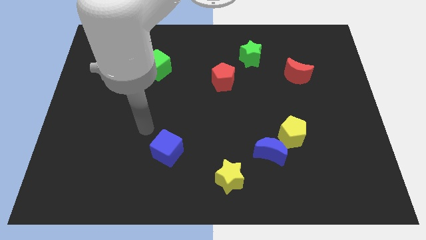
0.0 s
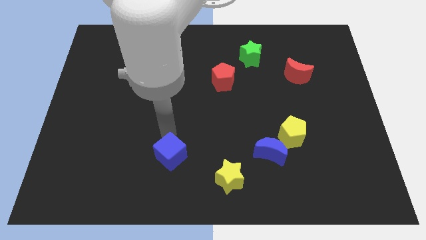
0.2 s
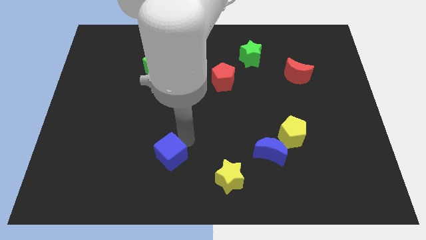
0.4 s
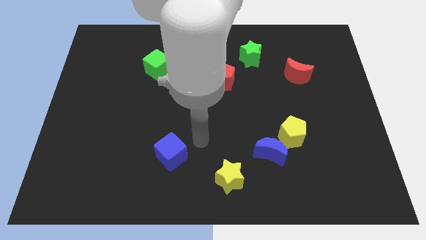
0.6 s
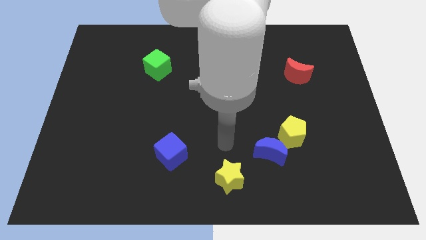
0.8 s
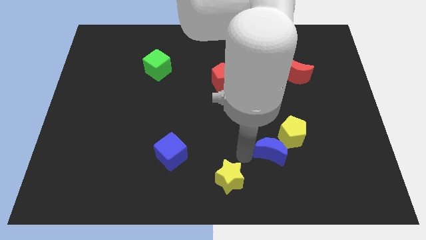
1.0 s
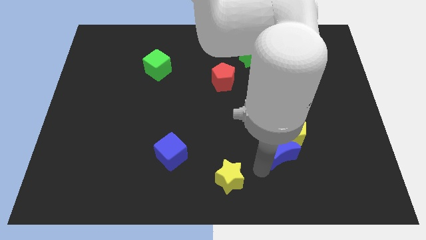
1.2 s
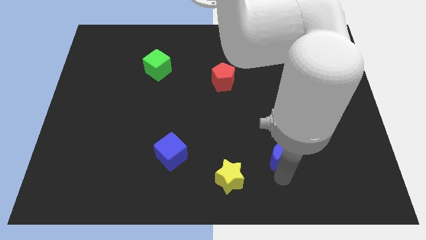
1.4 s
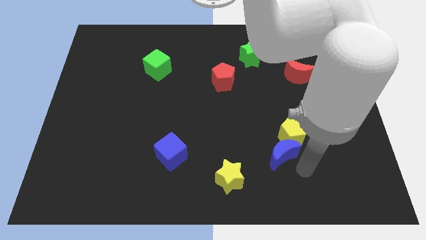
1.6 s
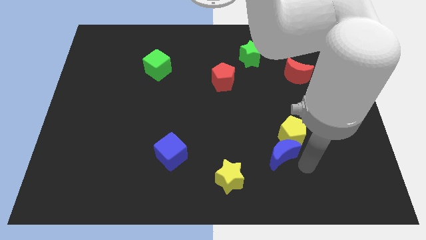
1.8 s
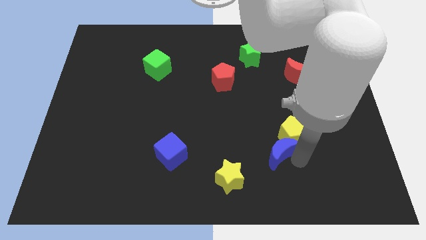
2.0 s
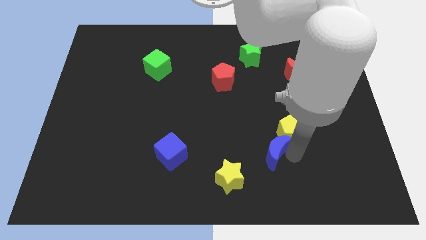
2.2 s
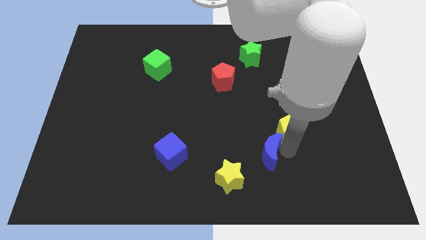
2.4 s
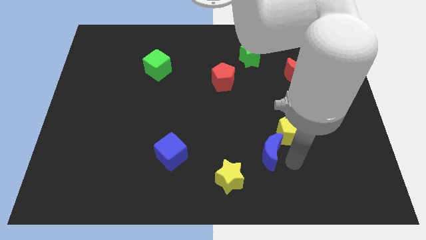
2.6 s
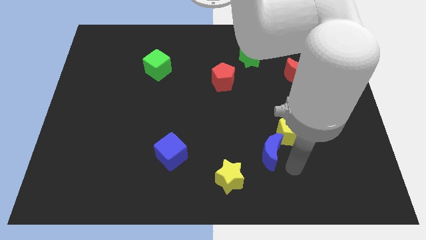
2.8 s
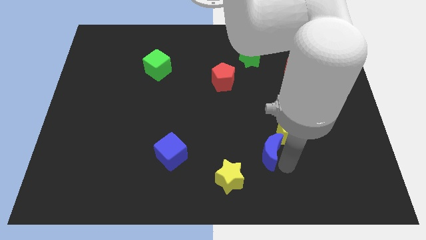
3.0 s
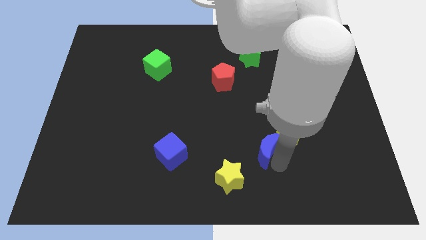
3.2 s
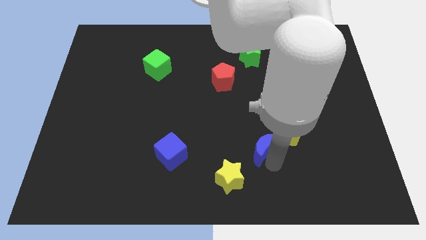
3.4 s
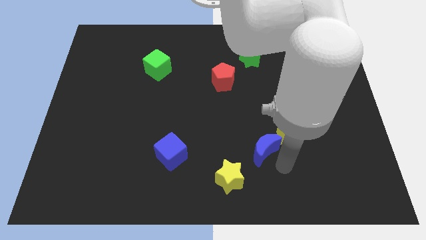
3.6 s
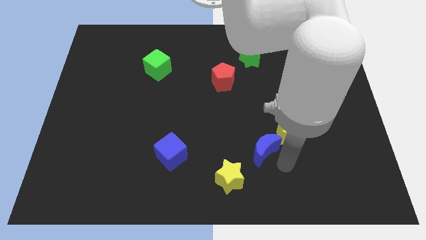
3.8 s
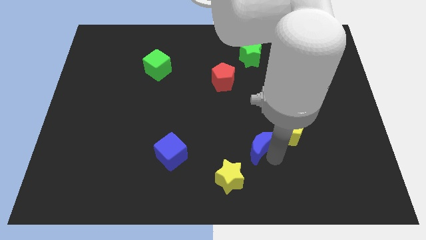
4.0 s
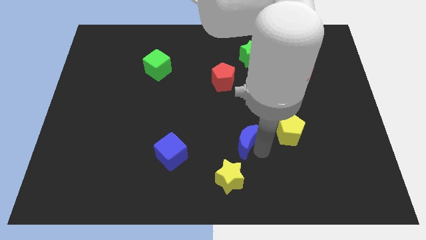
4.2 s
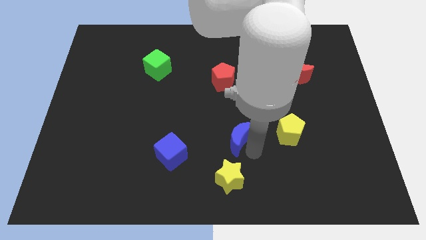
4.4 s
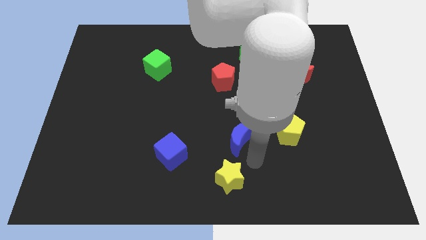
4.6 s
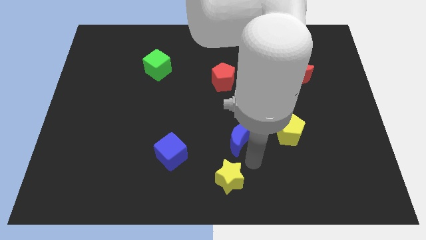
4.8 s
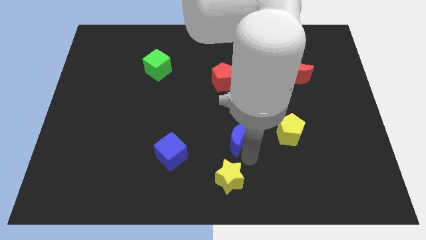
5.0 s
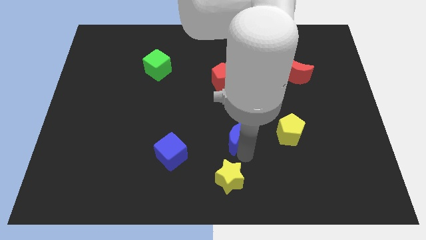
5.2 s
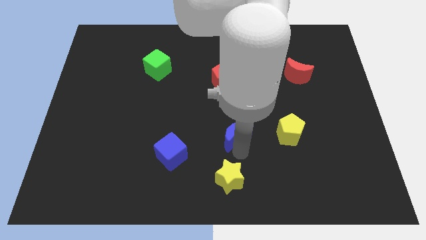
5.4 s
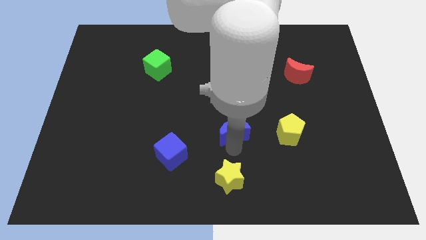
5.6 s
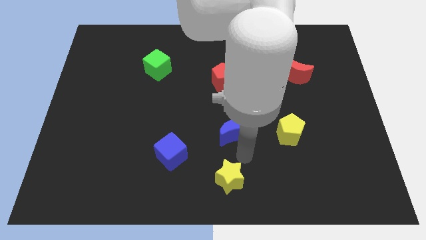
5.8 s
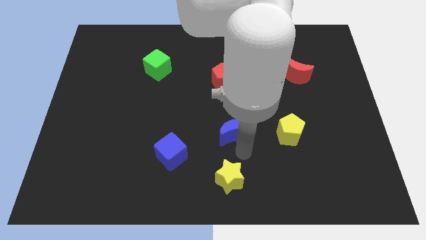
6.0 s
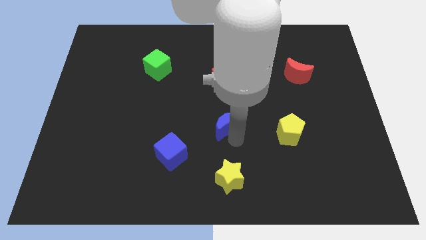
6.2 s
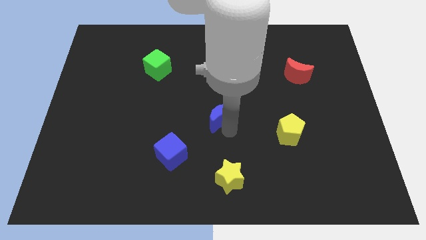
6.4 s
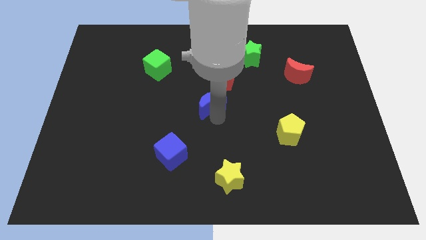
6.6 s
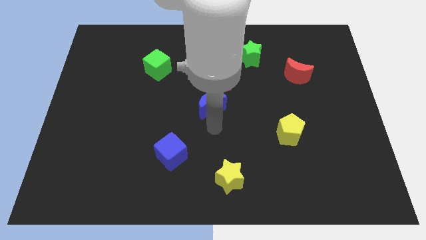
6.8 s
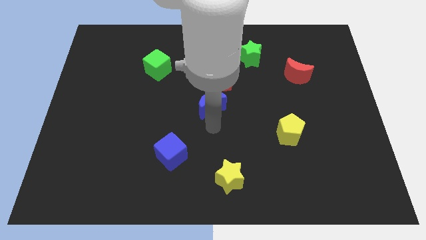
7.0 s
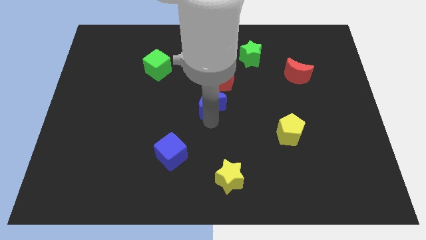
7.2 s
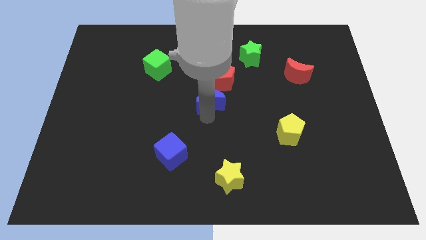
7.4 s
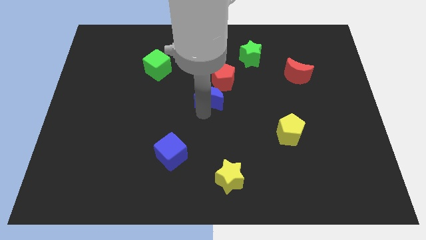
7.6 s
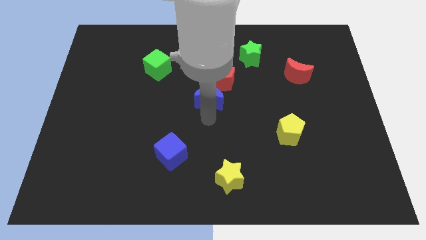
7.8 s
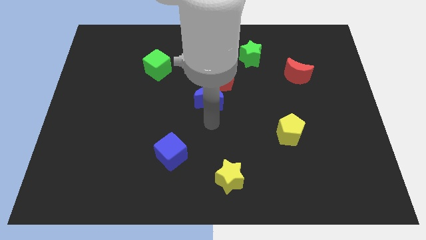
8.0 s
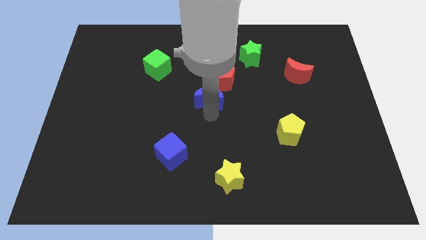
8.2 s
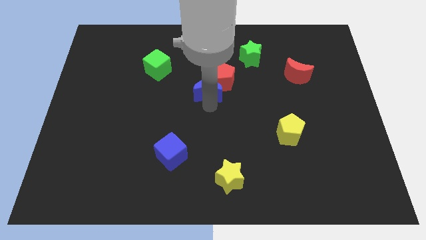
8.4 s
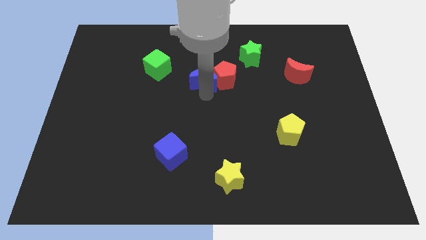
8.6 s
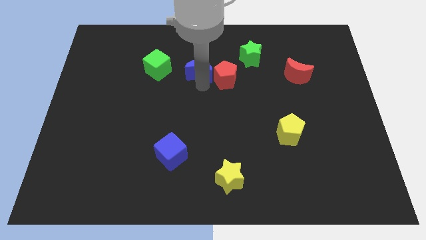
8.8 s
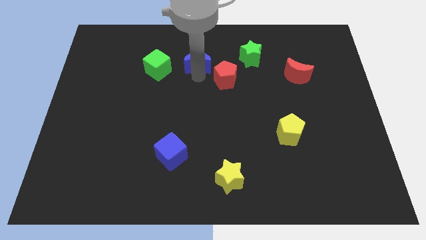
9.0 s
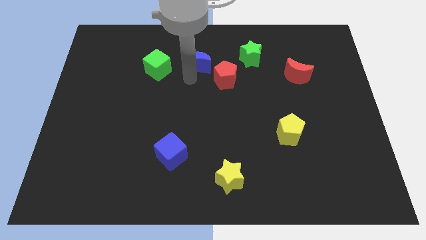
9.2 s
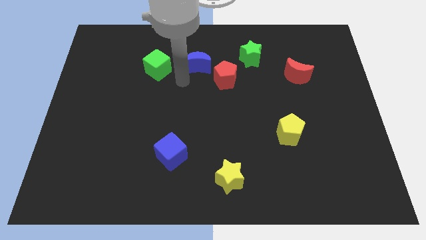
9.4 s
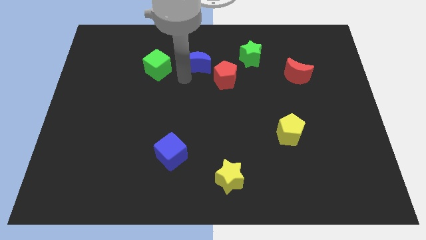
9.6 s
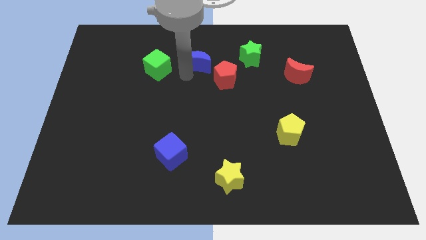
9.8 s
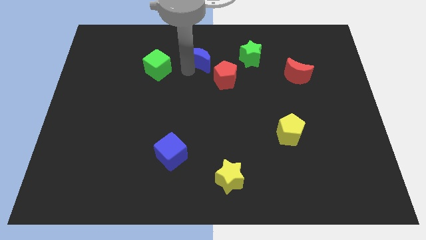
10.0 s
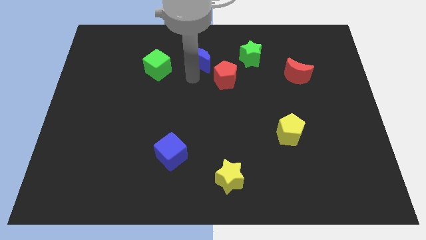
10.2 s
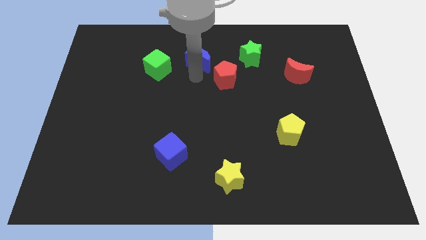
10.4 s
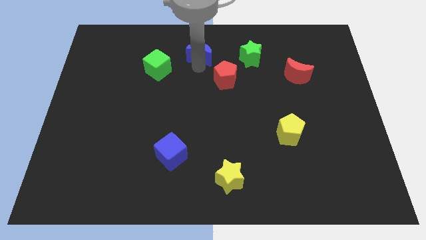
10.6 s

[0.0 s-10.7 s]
put the blue moon to the towards your base
